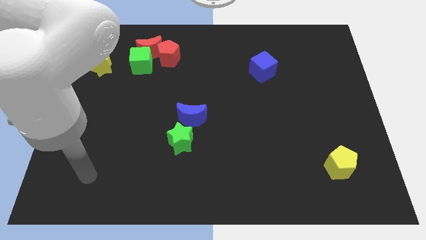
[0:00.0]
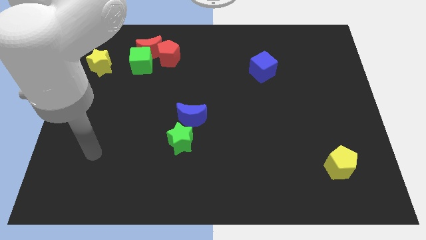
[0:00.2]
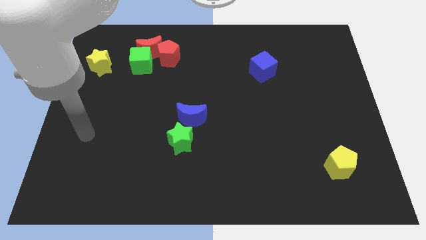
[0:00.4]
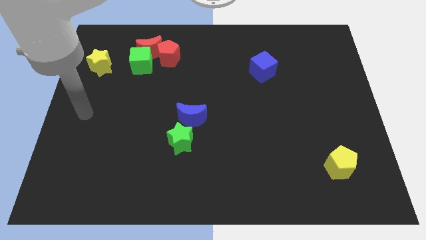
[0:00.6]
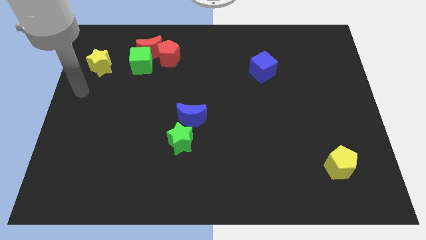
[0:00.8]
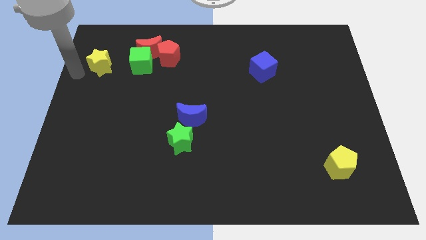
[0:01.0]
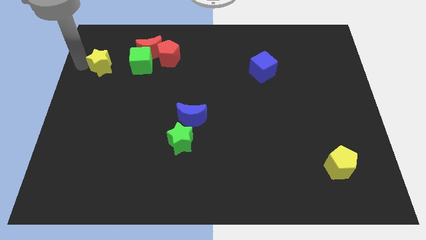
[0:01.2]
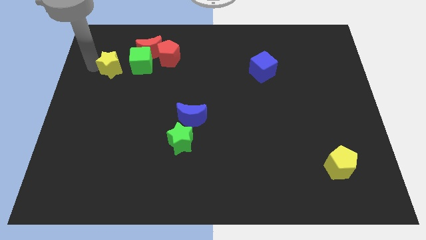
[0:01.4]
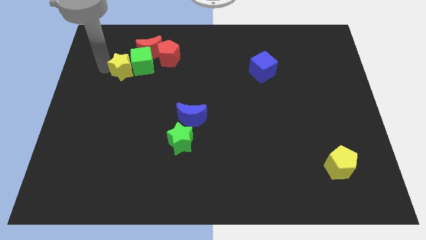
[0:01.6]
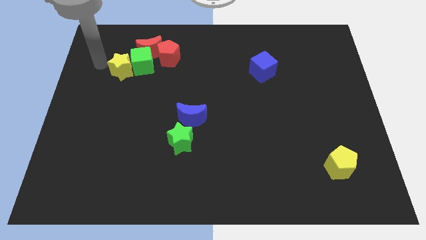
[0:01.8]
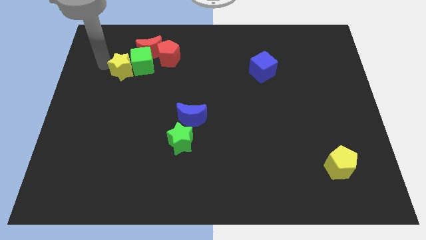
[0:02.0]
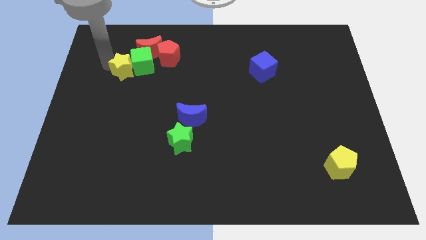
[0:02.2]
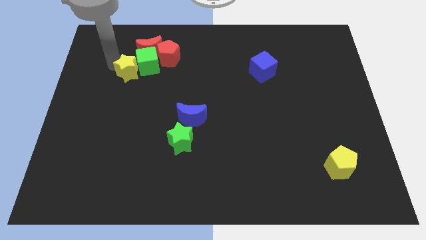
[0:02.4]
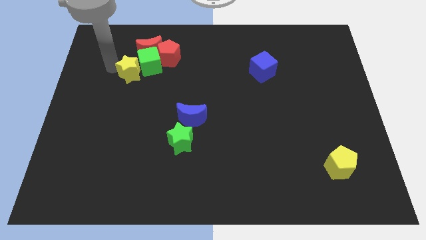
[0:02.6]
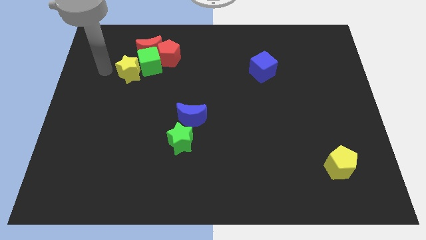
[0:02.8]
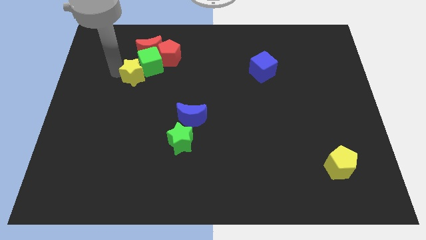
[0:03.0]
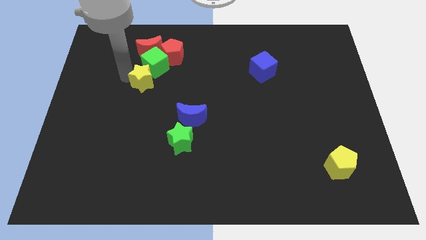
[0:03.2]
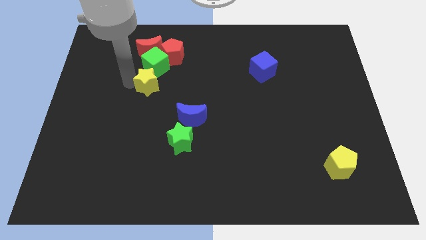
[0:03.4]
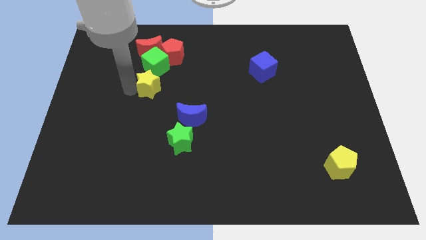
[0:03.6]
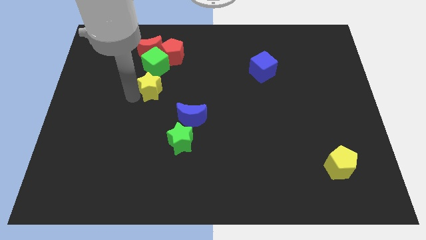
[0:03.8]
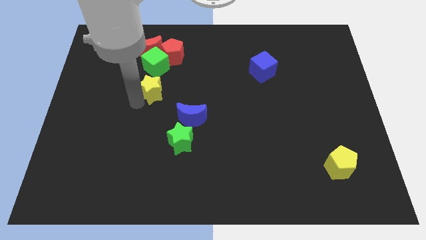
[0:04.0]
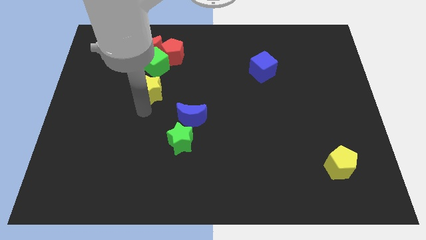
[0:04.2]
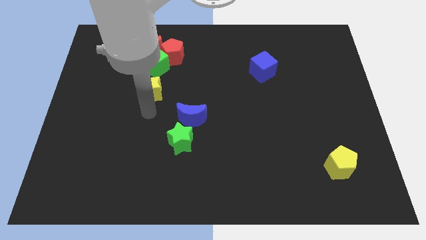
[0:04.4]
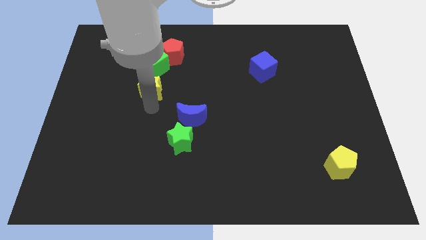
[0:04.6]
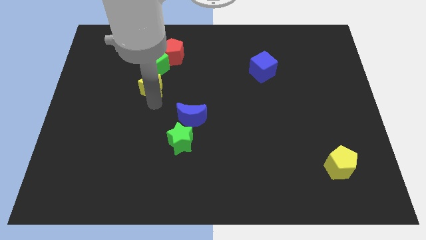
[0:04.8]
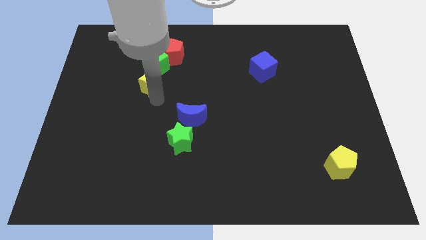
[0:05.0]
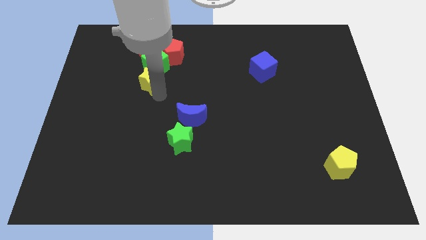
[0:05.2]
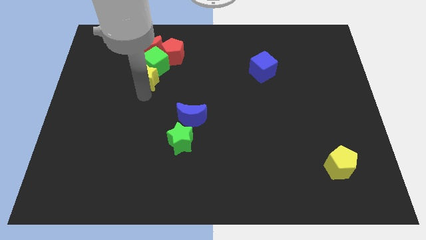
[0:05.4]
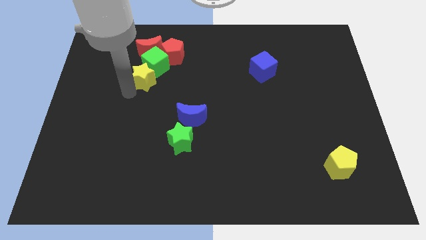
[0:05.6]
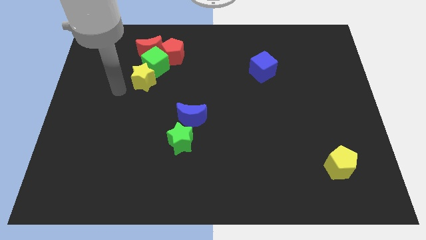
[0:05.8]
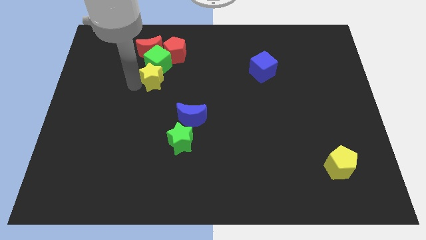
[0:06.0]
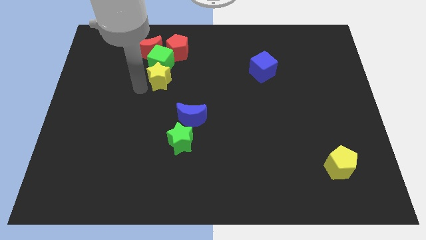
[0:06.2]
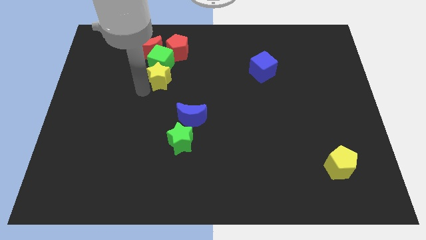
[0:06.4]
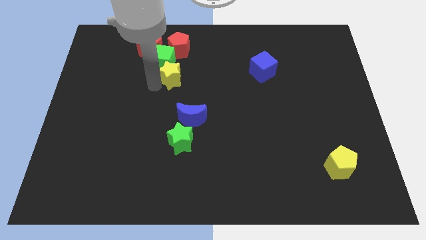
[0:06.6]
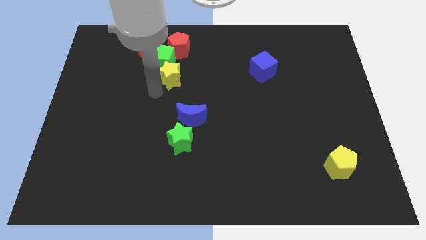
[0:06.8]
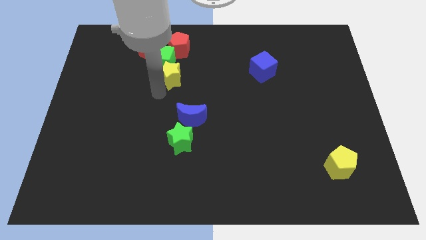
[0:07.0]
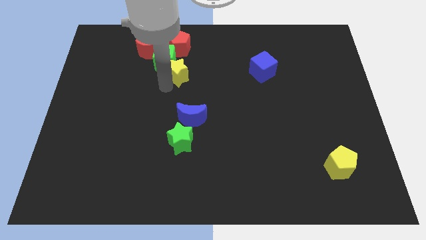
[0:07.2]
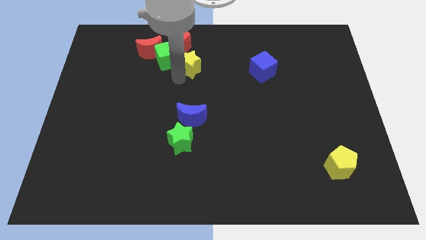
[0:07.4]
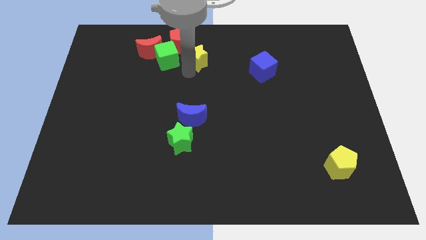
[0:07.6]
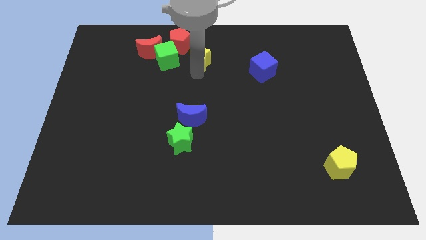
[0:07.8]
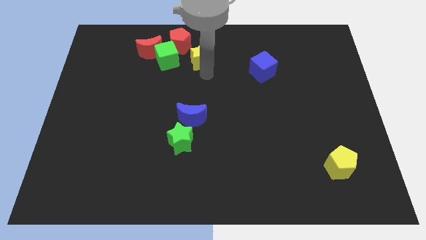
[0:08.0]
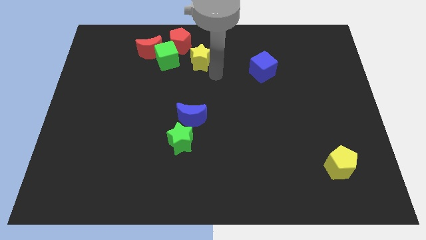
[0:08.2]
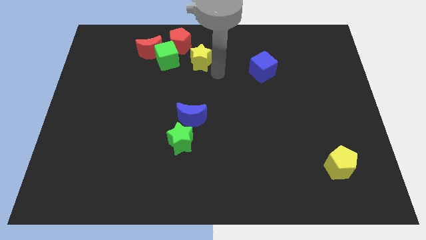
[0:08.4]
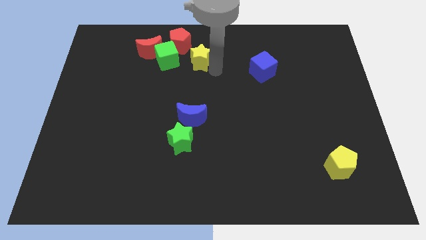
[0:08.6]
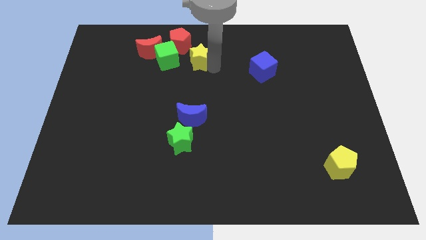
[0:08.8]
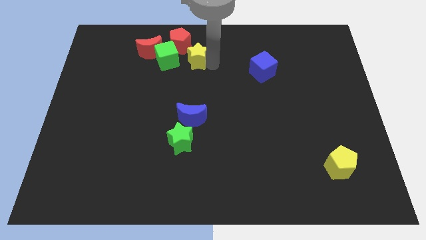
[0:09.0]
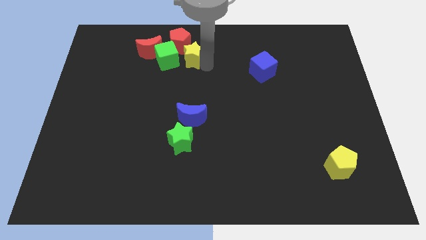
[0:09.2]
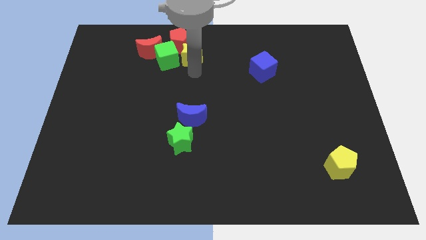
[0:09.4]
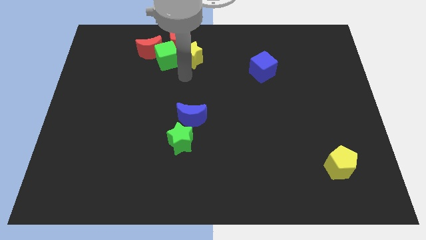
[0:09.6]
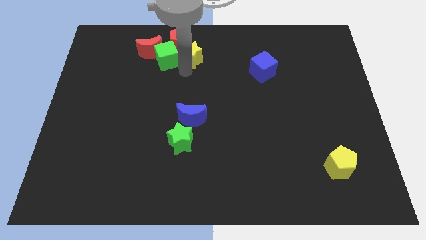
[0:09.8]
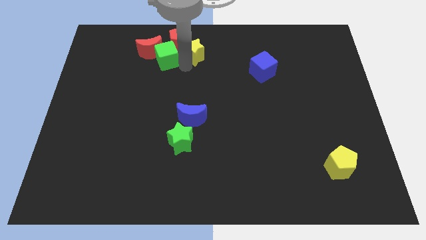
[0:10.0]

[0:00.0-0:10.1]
push the yellow star to the top

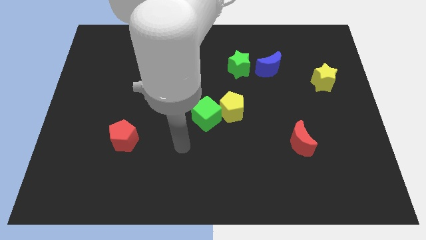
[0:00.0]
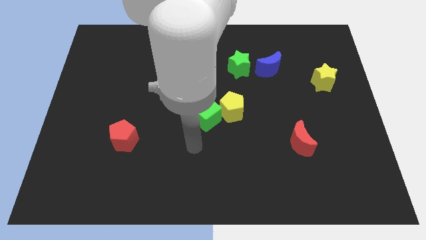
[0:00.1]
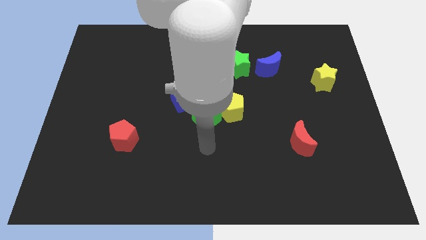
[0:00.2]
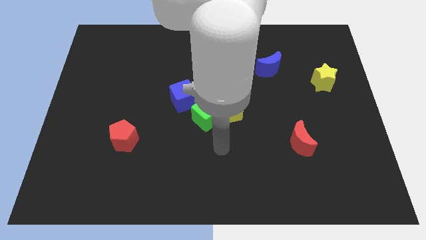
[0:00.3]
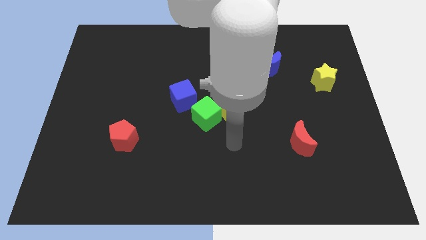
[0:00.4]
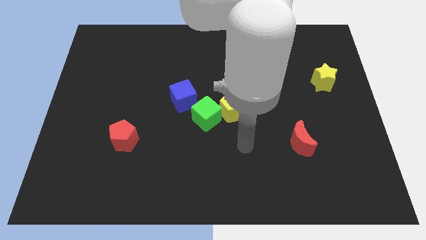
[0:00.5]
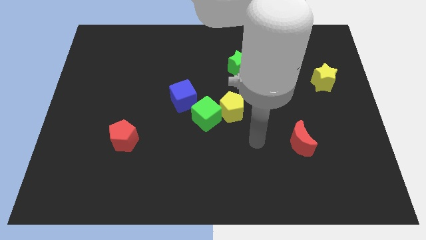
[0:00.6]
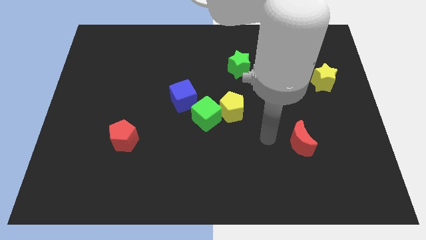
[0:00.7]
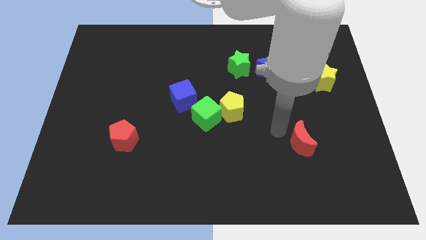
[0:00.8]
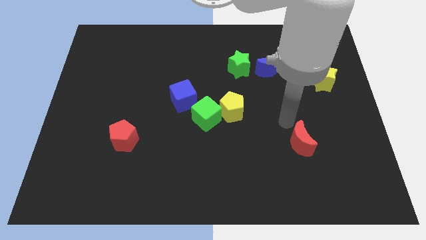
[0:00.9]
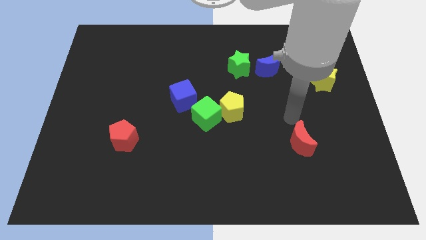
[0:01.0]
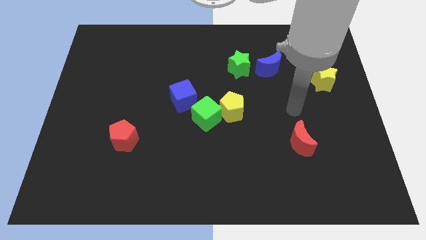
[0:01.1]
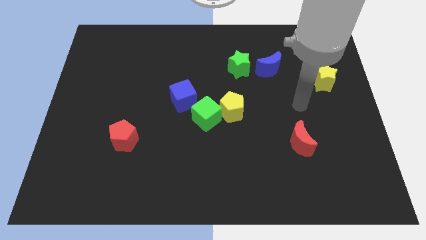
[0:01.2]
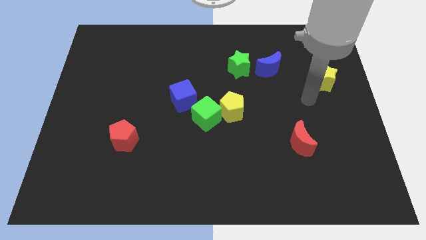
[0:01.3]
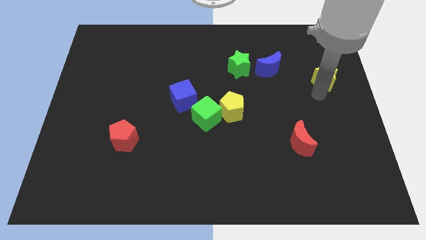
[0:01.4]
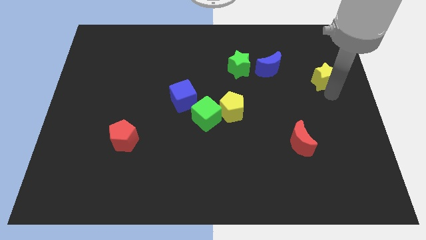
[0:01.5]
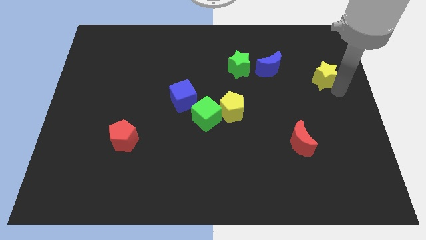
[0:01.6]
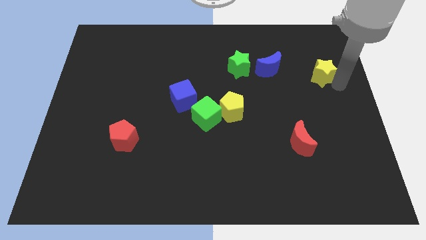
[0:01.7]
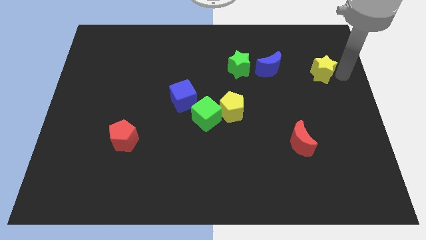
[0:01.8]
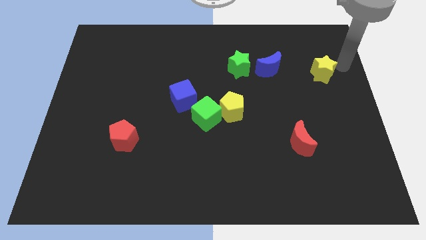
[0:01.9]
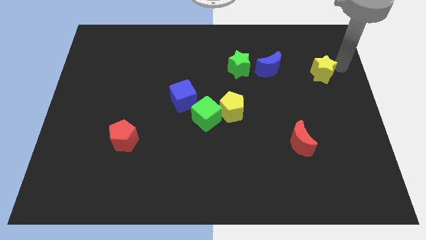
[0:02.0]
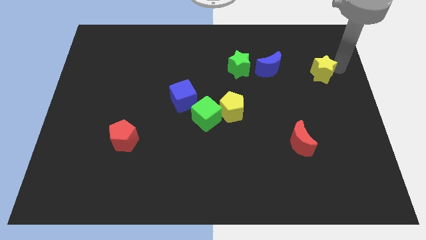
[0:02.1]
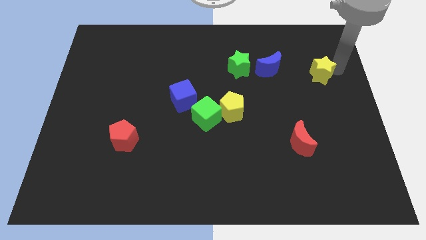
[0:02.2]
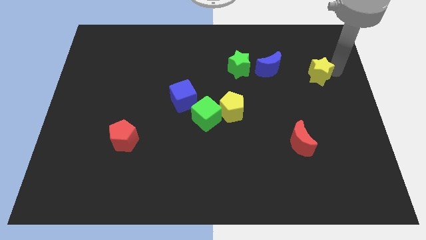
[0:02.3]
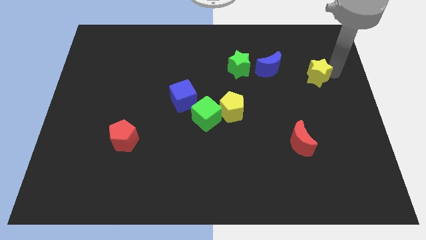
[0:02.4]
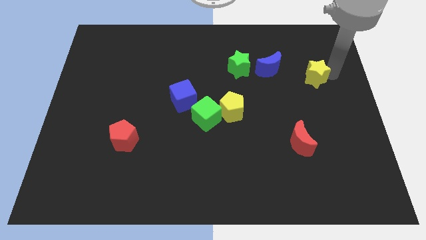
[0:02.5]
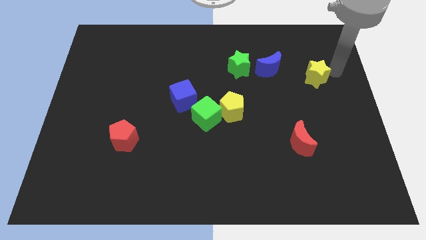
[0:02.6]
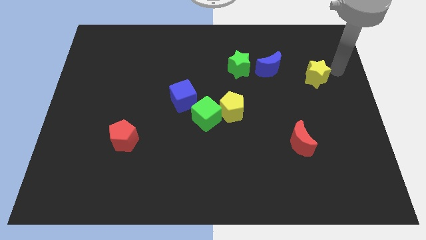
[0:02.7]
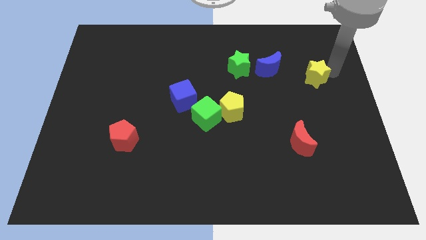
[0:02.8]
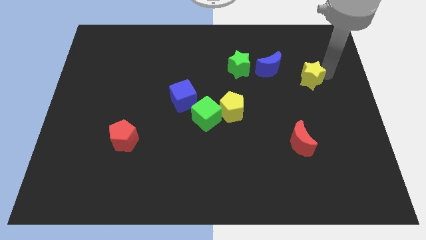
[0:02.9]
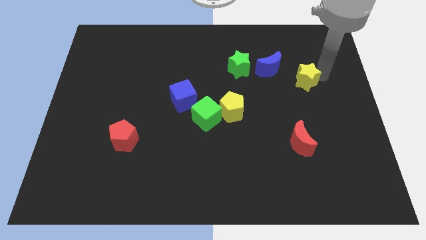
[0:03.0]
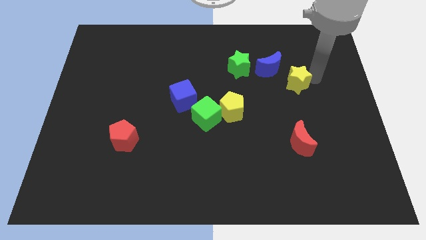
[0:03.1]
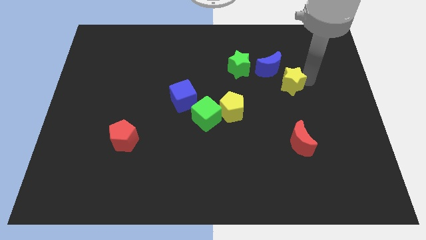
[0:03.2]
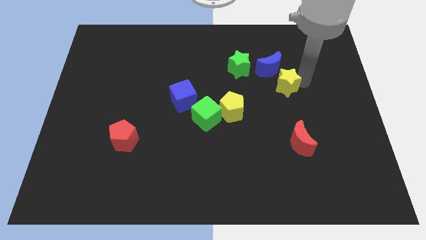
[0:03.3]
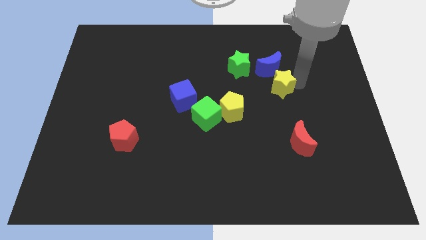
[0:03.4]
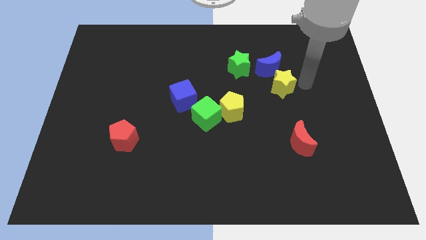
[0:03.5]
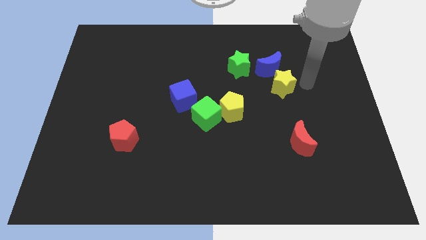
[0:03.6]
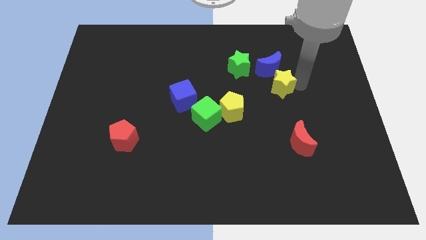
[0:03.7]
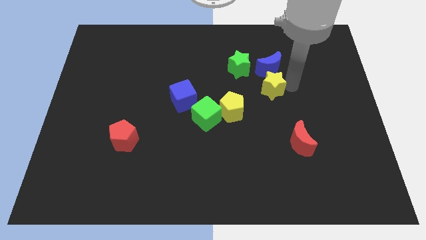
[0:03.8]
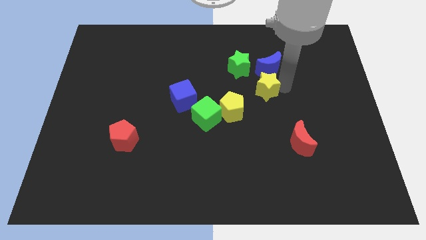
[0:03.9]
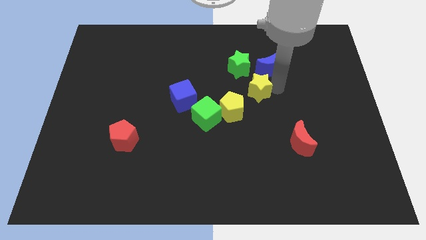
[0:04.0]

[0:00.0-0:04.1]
slide the yellow star to the middle of the board
